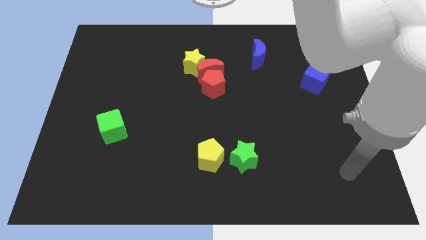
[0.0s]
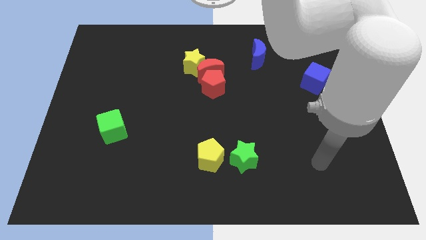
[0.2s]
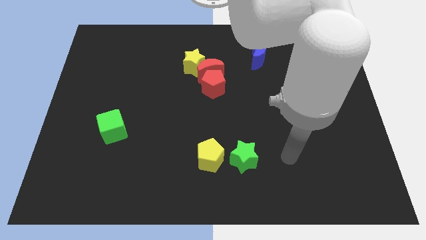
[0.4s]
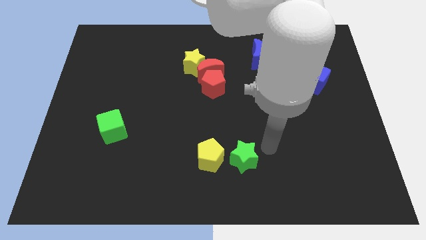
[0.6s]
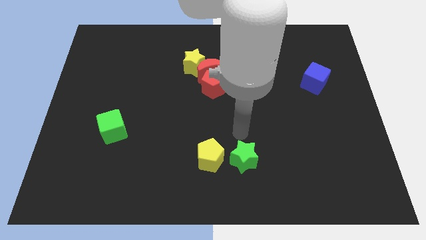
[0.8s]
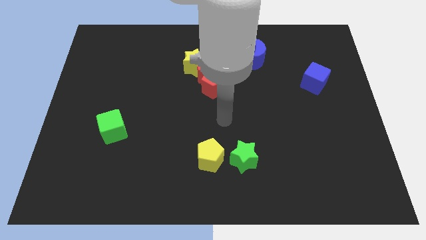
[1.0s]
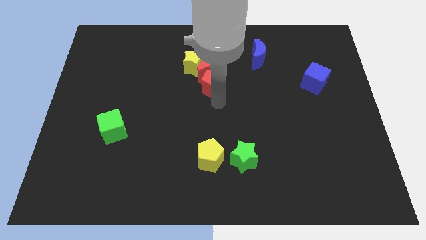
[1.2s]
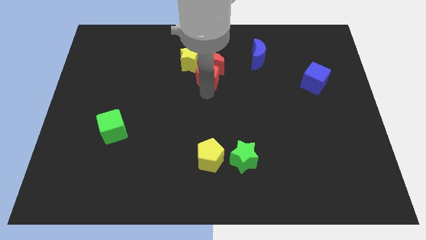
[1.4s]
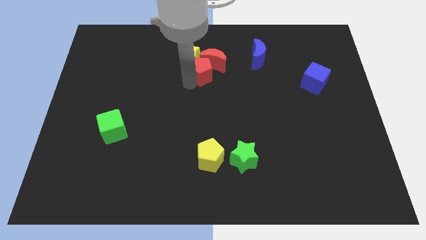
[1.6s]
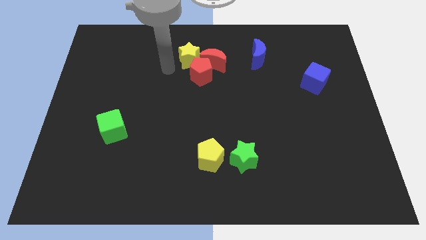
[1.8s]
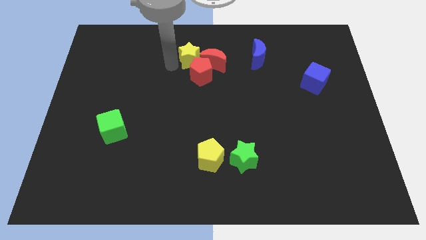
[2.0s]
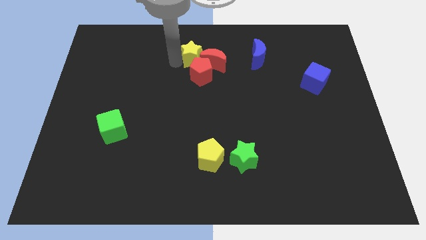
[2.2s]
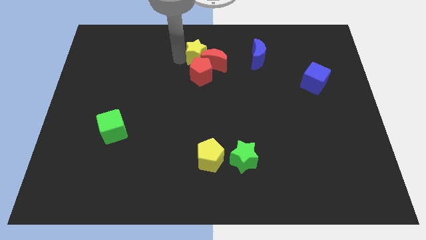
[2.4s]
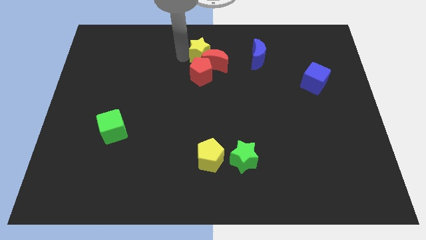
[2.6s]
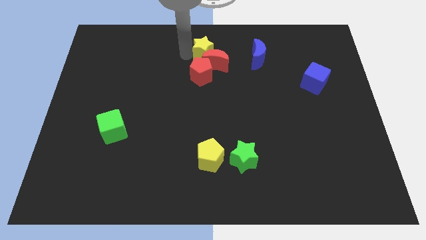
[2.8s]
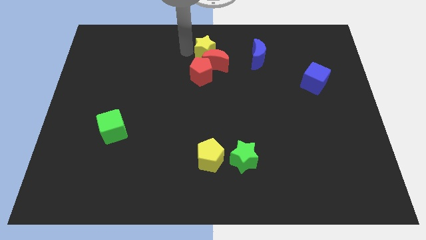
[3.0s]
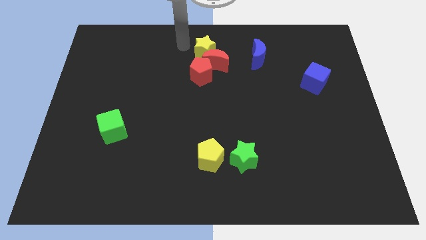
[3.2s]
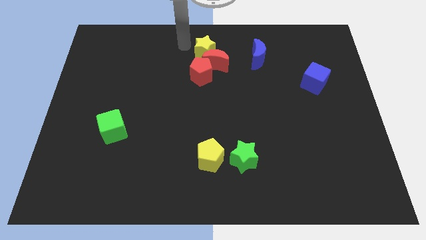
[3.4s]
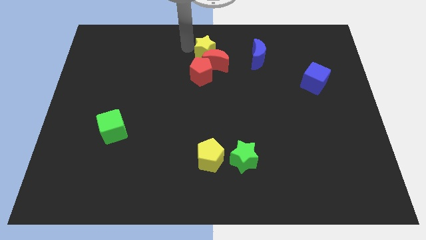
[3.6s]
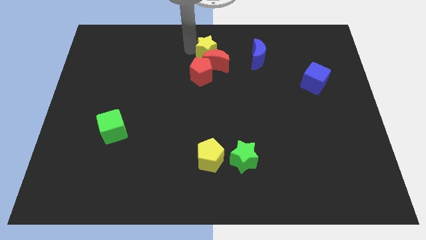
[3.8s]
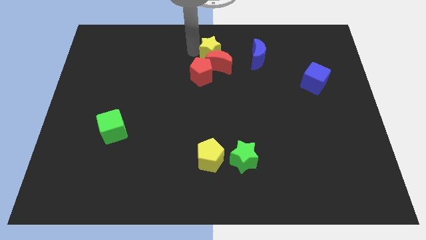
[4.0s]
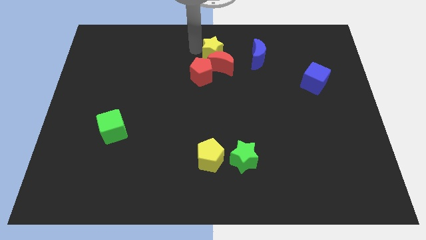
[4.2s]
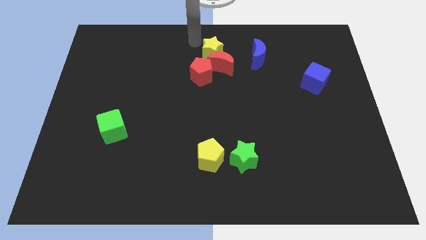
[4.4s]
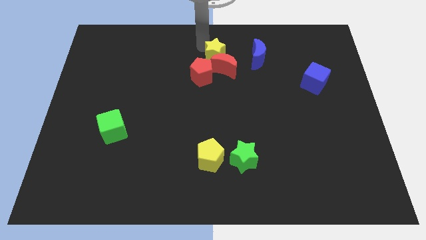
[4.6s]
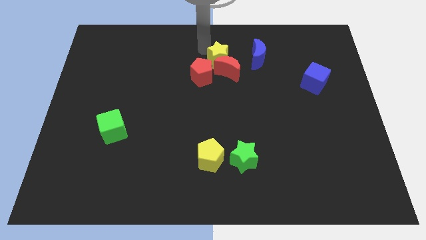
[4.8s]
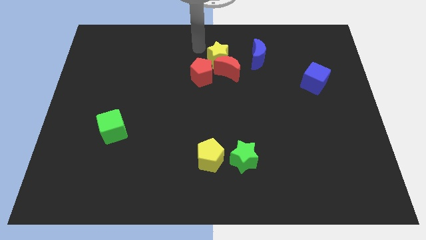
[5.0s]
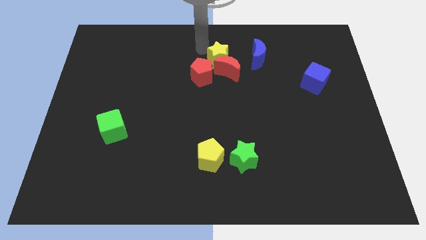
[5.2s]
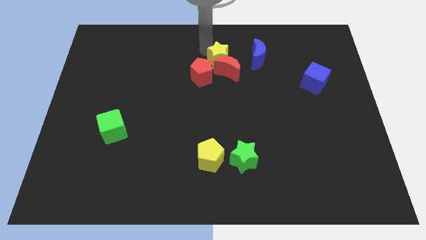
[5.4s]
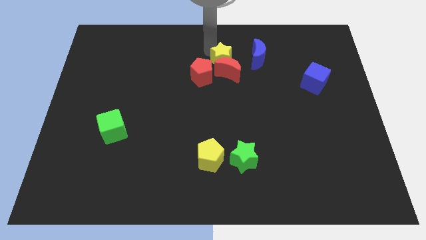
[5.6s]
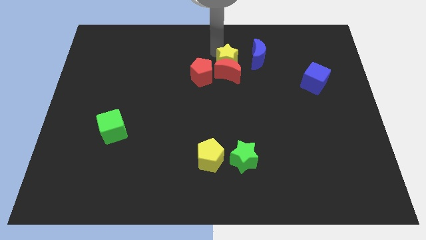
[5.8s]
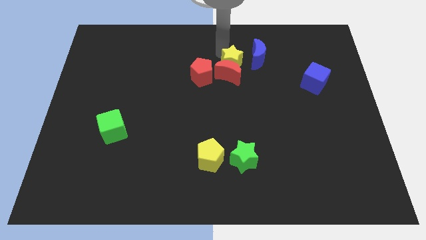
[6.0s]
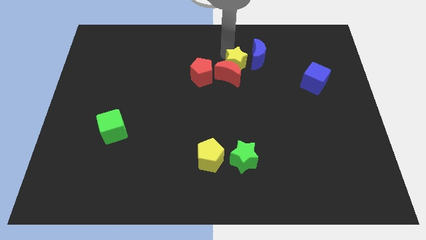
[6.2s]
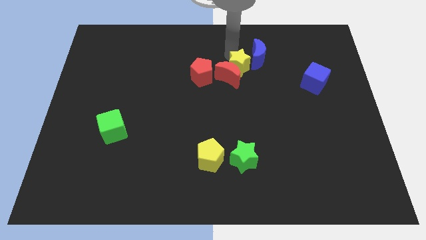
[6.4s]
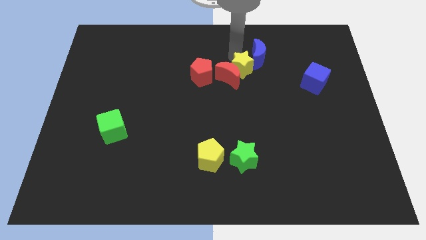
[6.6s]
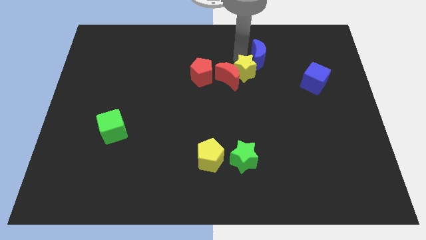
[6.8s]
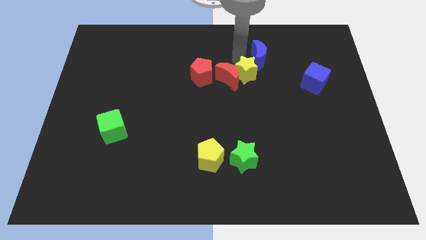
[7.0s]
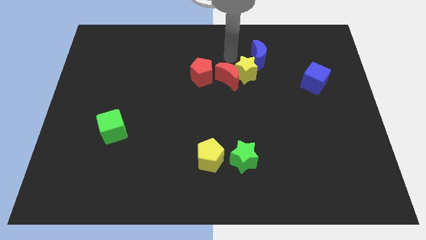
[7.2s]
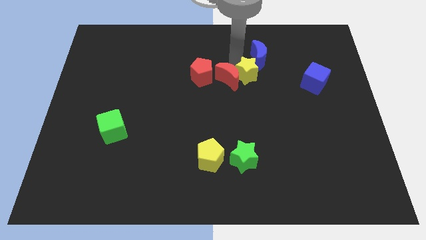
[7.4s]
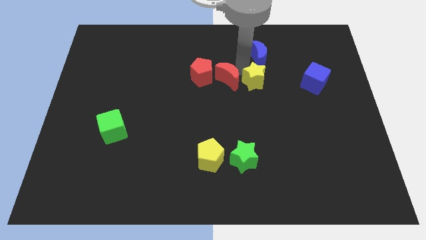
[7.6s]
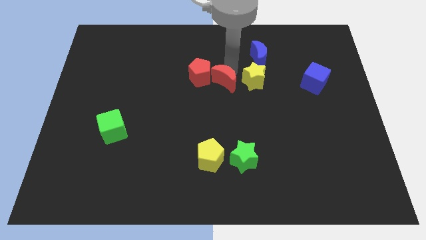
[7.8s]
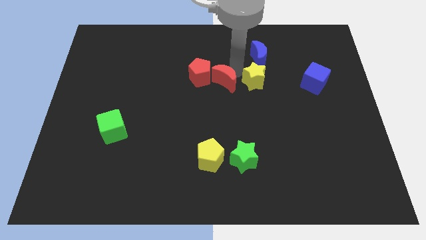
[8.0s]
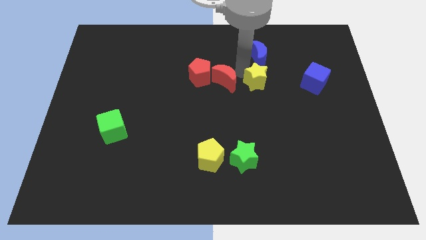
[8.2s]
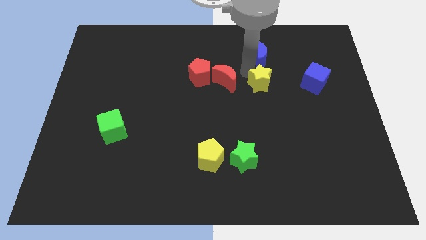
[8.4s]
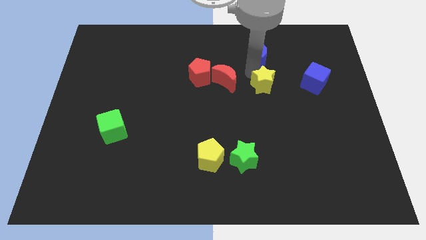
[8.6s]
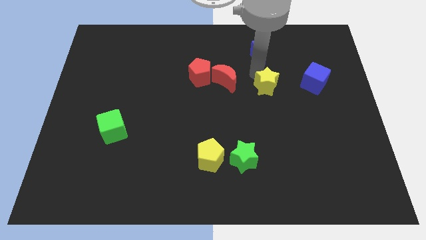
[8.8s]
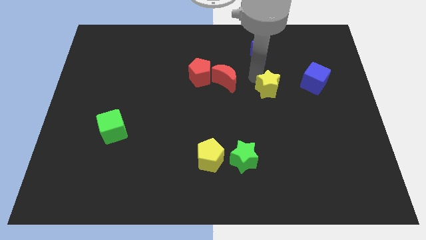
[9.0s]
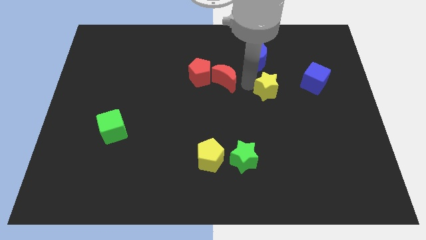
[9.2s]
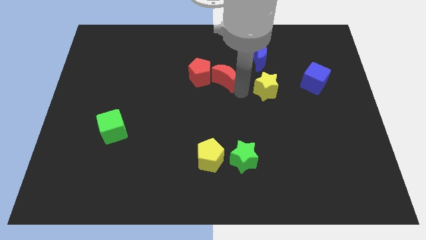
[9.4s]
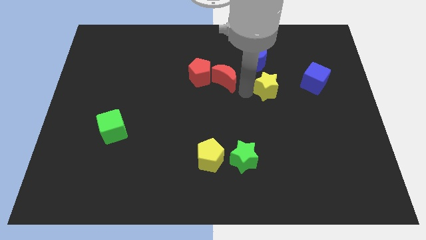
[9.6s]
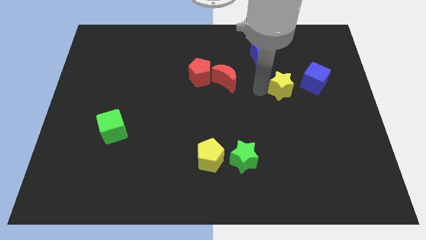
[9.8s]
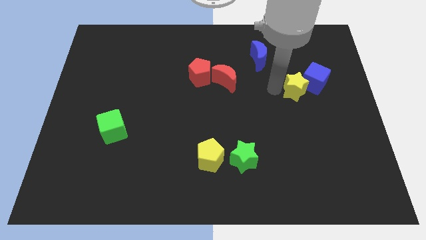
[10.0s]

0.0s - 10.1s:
put the yellow star next to the blue cube

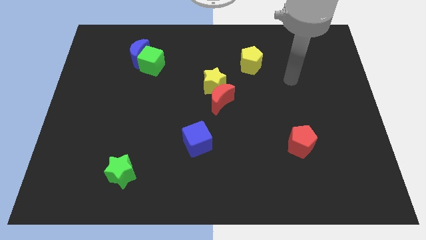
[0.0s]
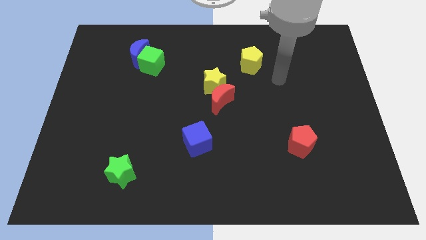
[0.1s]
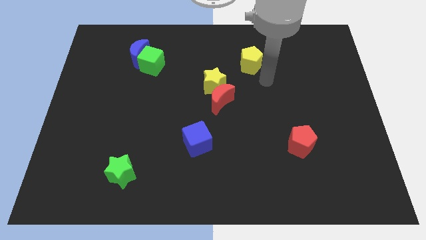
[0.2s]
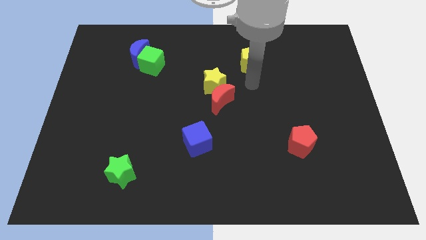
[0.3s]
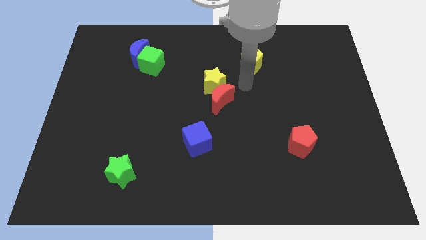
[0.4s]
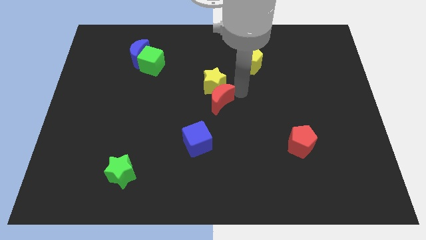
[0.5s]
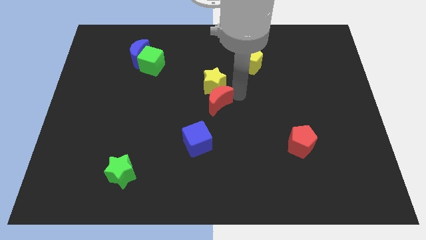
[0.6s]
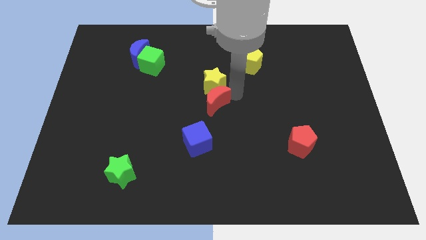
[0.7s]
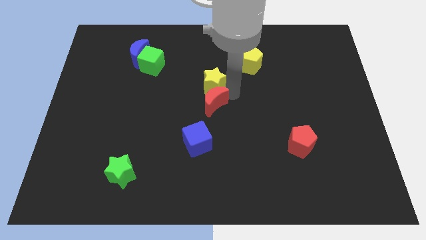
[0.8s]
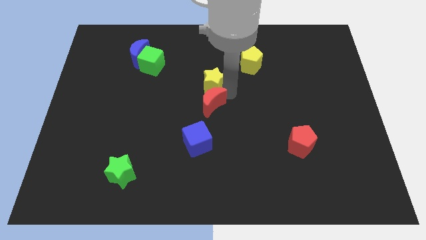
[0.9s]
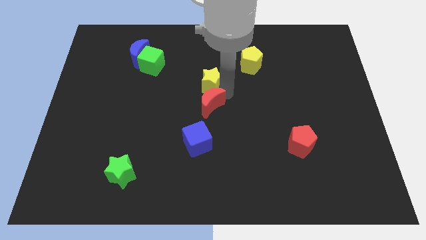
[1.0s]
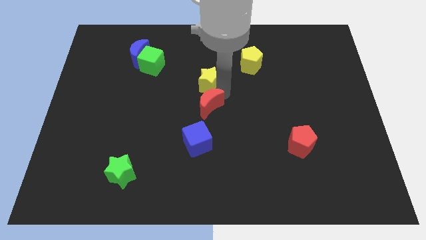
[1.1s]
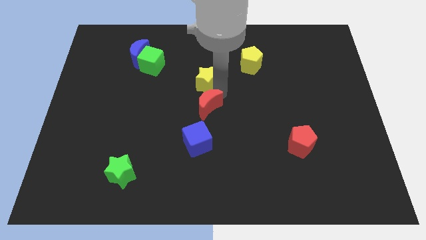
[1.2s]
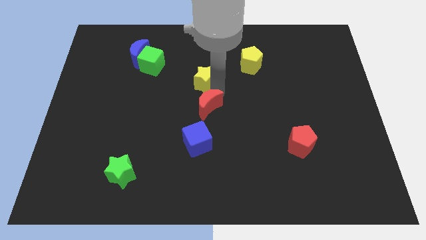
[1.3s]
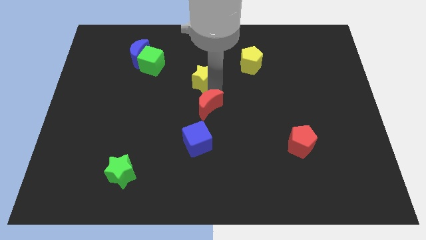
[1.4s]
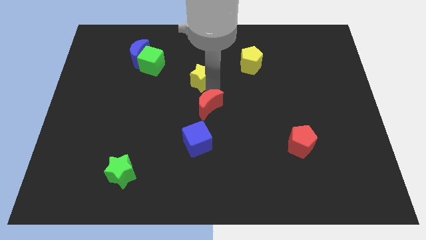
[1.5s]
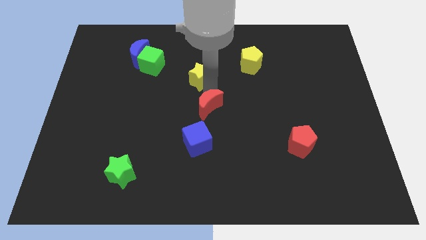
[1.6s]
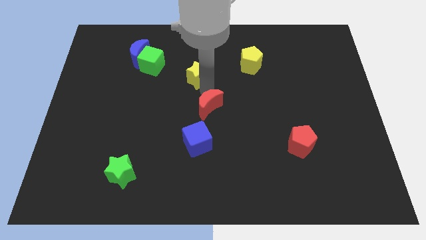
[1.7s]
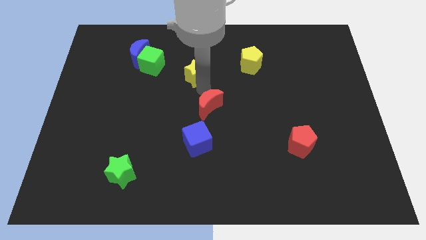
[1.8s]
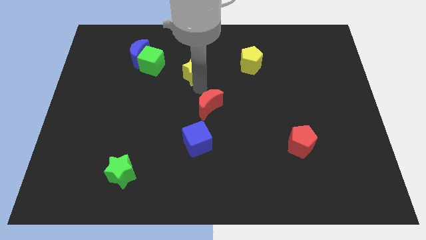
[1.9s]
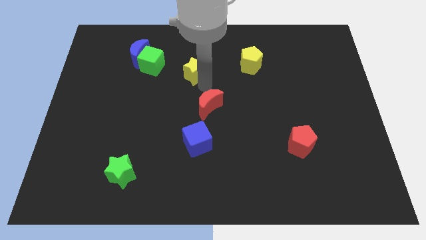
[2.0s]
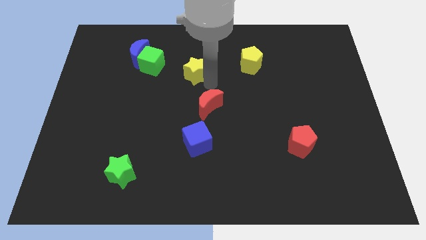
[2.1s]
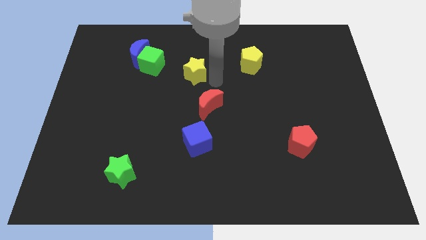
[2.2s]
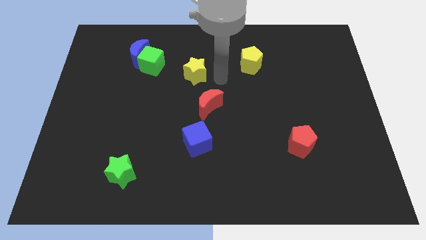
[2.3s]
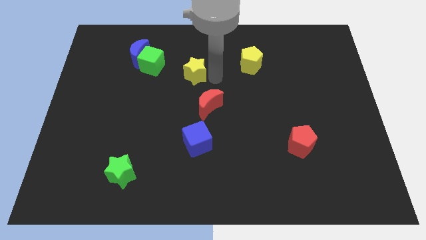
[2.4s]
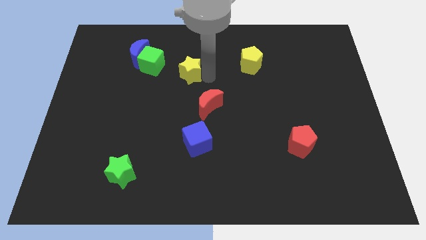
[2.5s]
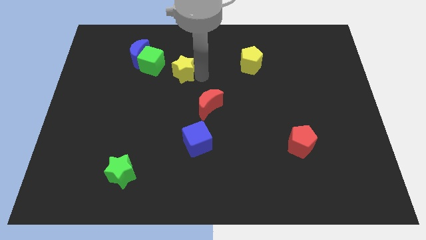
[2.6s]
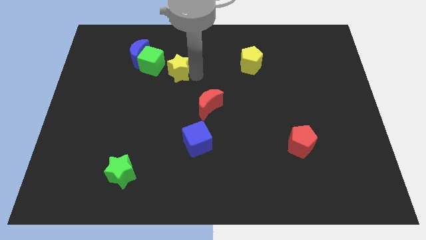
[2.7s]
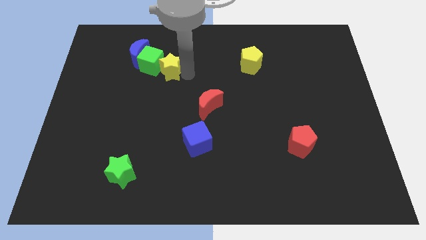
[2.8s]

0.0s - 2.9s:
slide the yellow star close to the green cube
